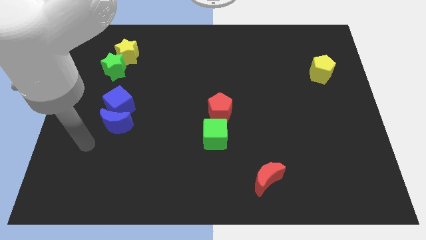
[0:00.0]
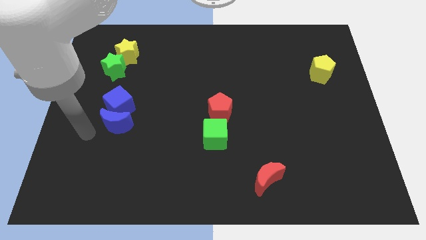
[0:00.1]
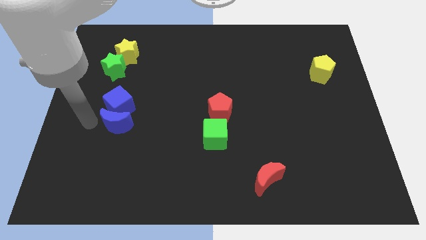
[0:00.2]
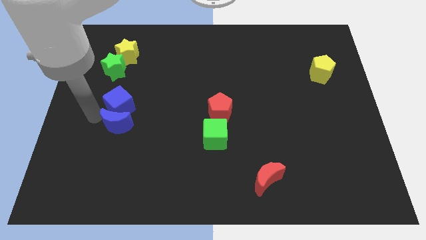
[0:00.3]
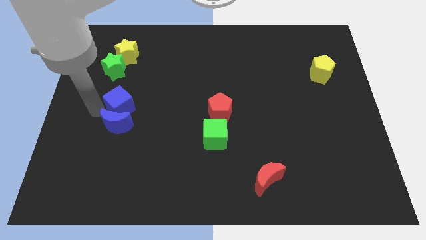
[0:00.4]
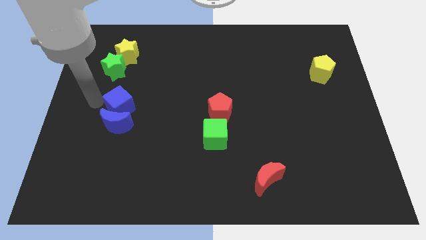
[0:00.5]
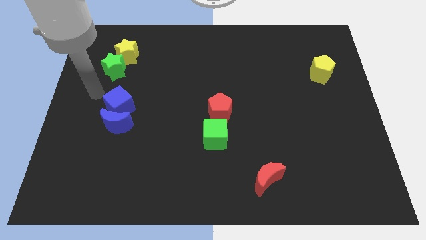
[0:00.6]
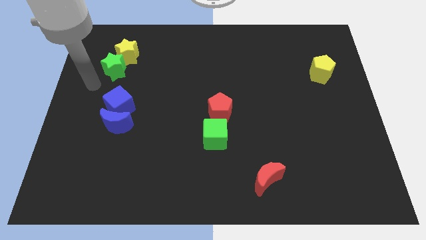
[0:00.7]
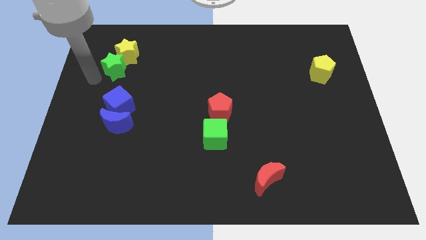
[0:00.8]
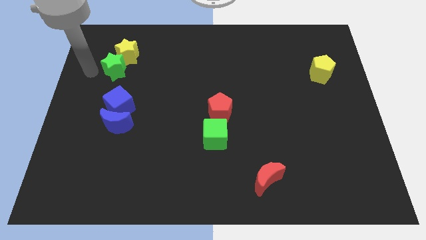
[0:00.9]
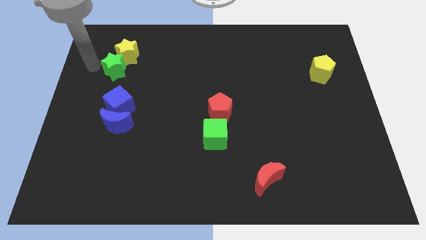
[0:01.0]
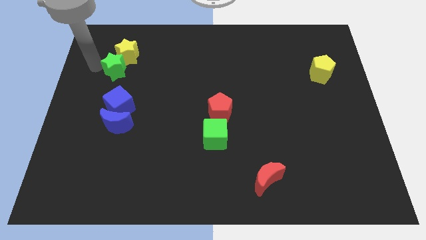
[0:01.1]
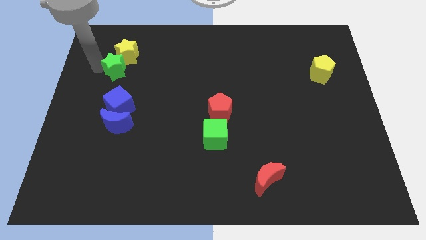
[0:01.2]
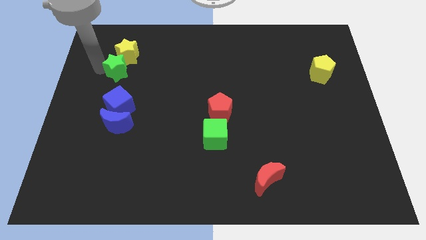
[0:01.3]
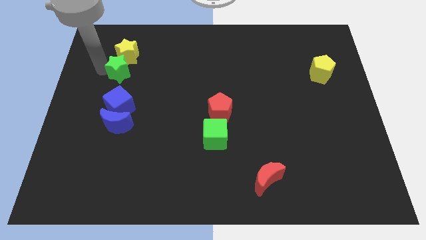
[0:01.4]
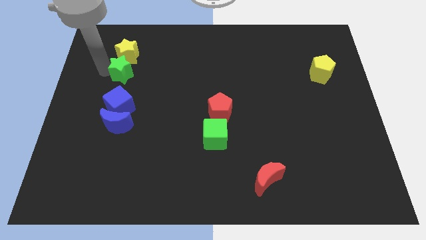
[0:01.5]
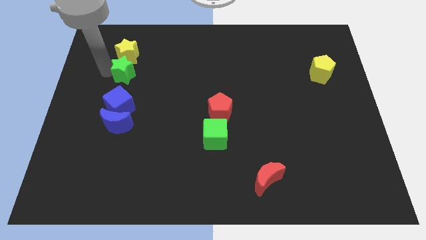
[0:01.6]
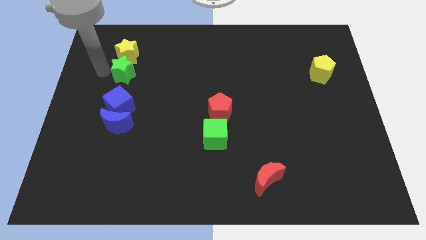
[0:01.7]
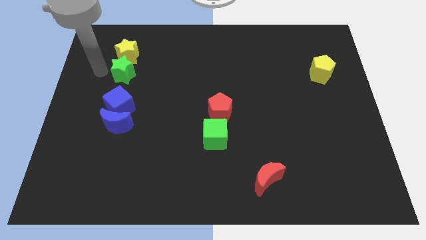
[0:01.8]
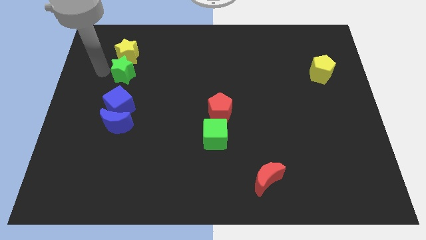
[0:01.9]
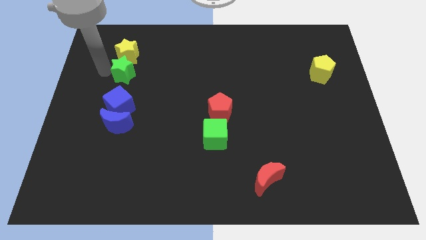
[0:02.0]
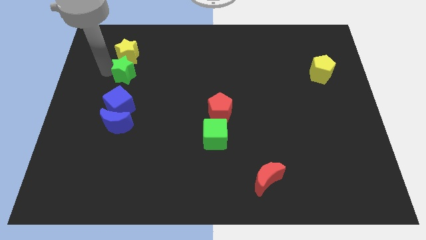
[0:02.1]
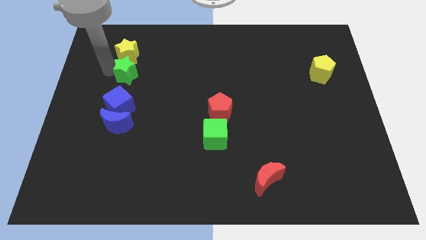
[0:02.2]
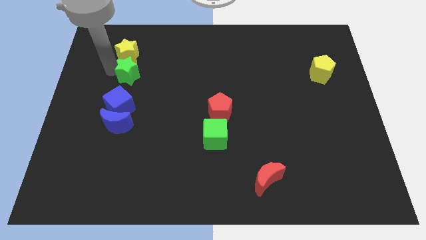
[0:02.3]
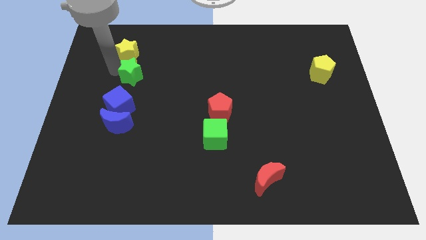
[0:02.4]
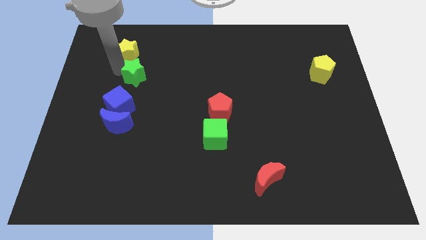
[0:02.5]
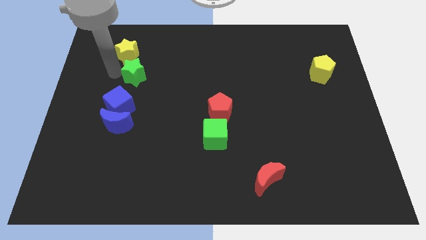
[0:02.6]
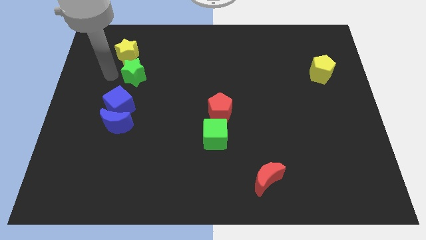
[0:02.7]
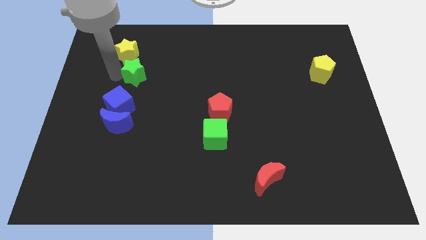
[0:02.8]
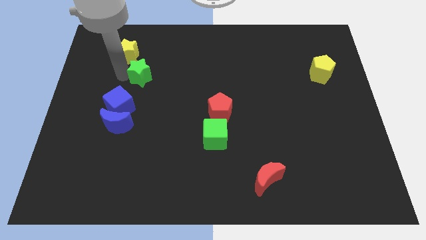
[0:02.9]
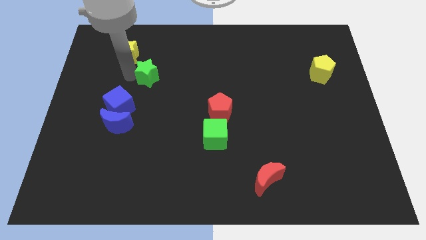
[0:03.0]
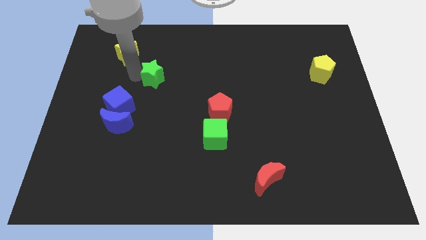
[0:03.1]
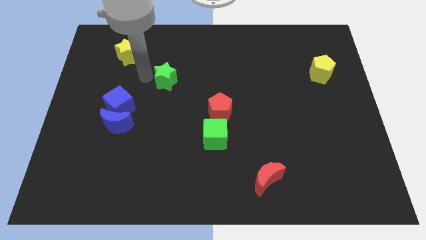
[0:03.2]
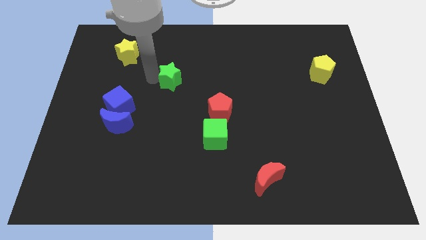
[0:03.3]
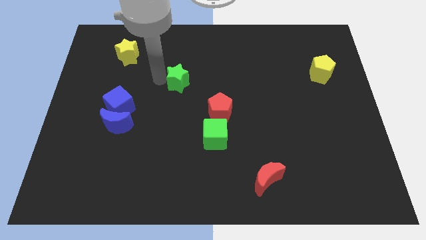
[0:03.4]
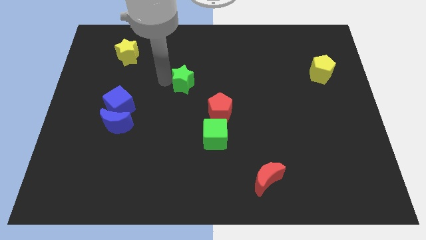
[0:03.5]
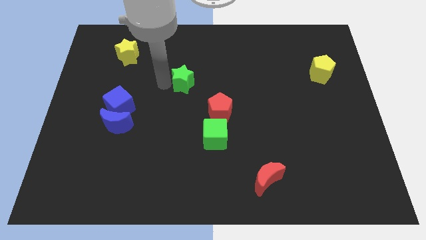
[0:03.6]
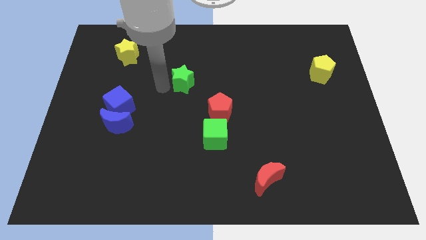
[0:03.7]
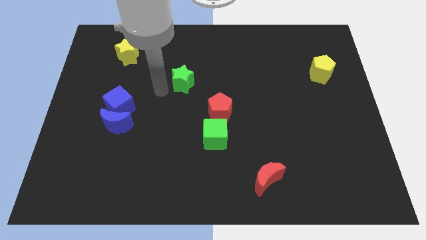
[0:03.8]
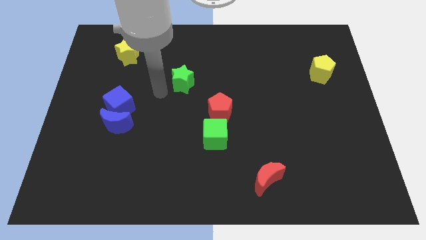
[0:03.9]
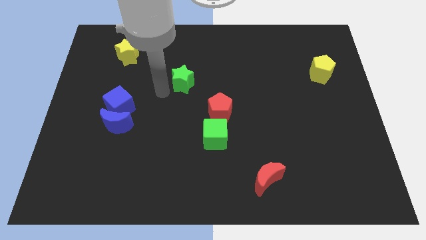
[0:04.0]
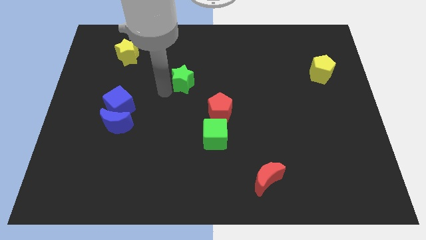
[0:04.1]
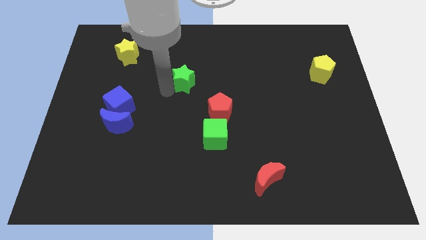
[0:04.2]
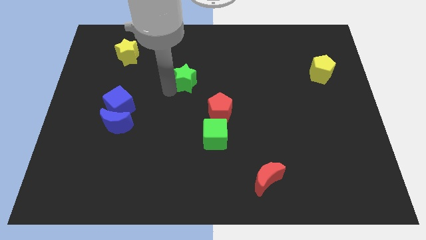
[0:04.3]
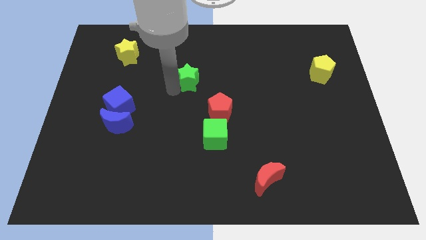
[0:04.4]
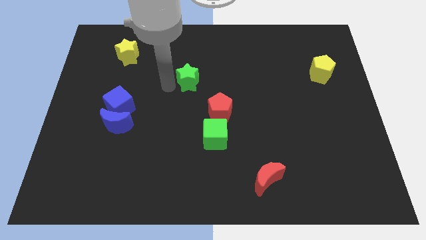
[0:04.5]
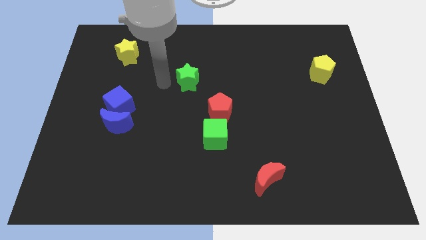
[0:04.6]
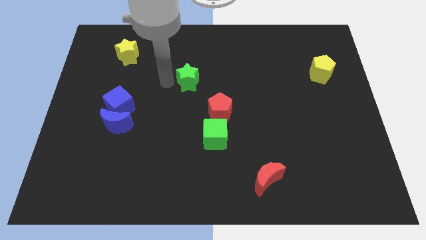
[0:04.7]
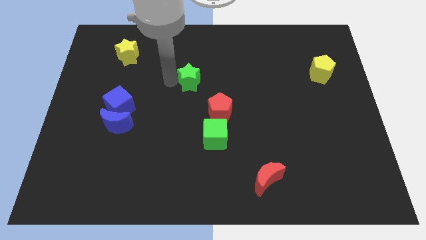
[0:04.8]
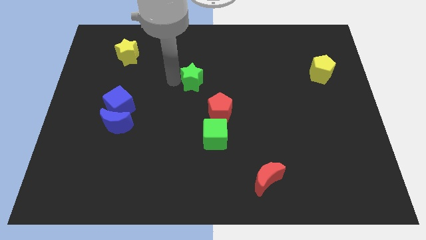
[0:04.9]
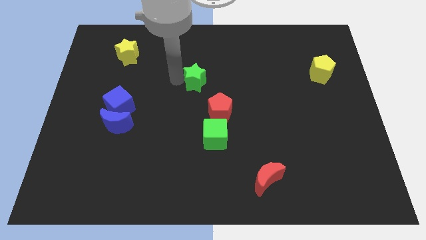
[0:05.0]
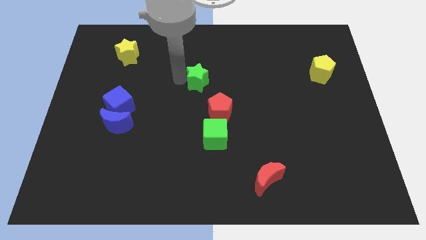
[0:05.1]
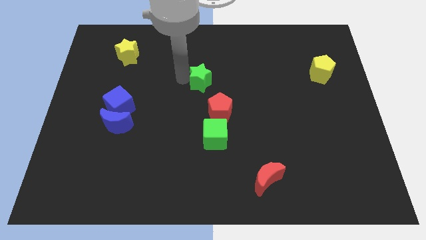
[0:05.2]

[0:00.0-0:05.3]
slide the green star to the top side of the red pentagon

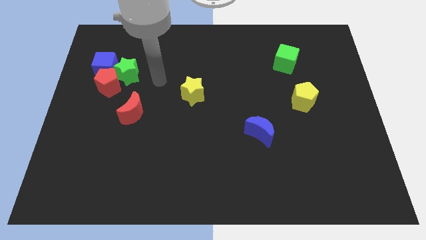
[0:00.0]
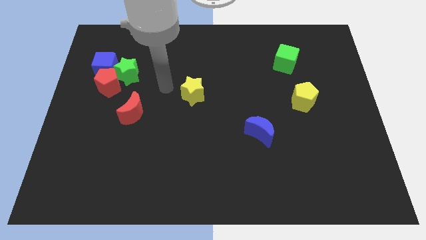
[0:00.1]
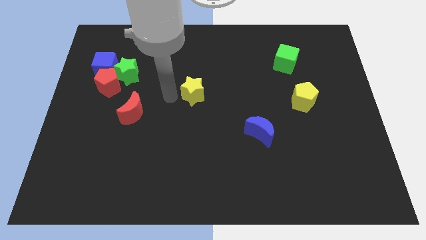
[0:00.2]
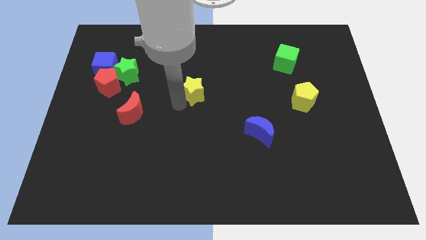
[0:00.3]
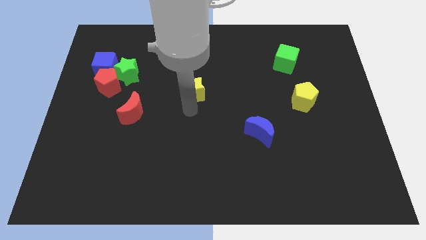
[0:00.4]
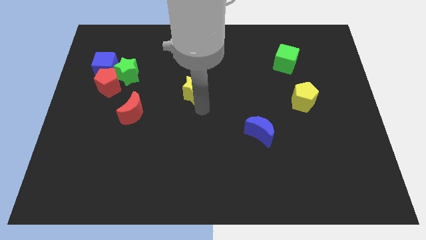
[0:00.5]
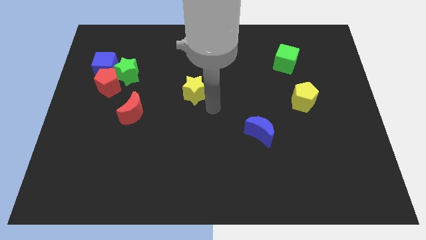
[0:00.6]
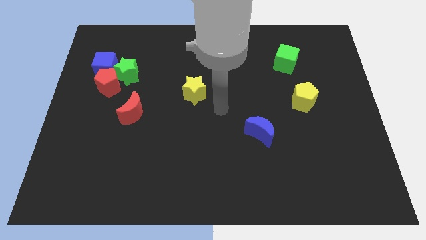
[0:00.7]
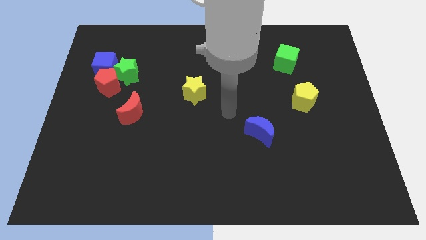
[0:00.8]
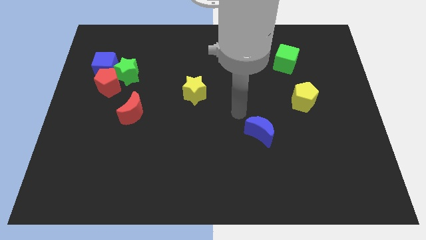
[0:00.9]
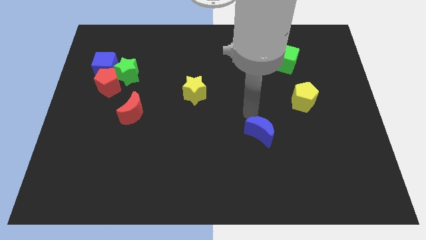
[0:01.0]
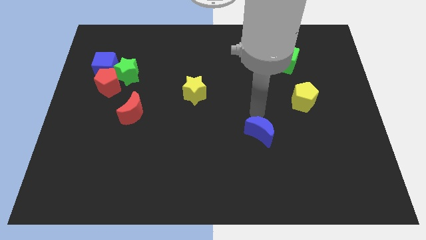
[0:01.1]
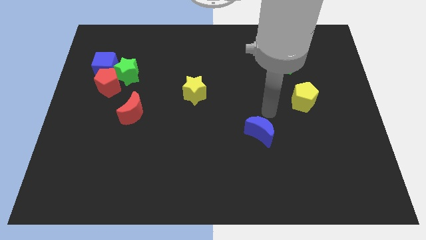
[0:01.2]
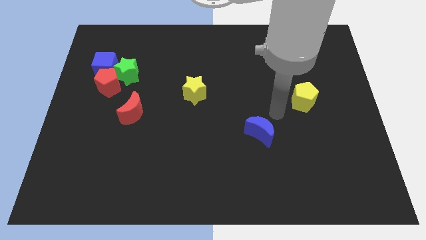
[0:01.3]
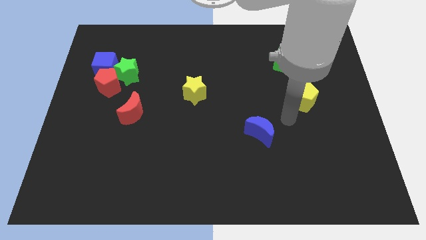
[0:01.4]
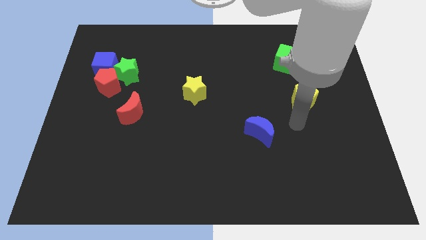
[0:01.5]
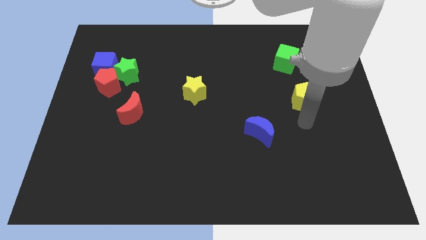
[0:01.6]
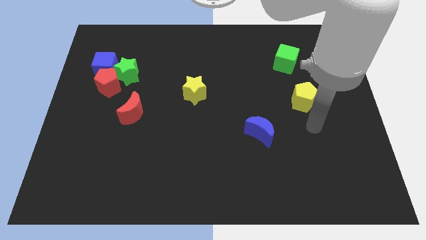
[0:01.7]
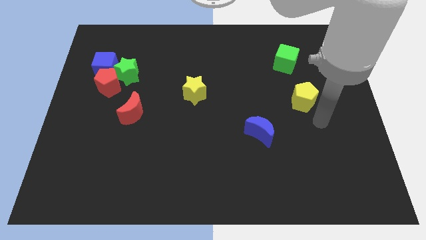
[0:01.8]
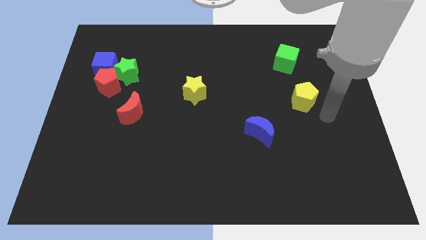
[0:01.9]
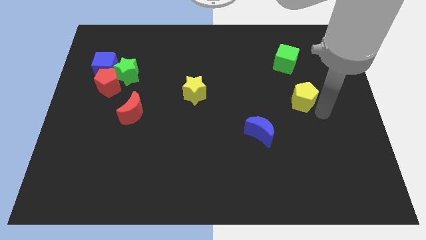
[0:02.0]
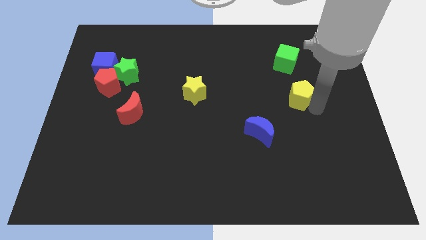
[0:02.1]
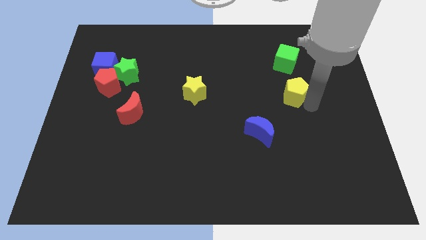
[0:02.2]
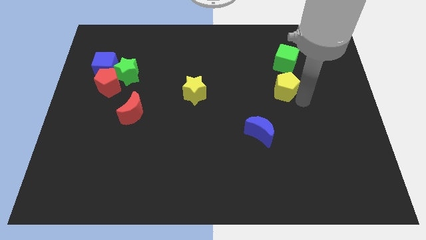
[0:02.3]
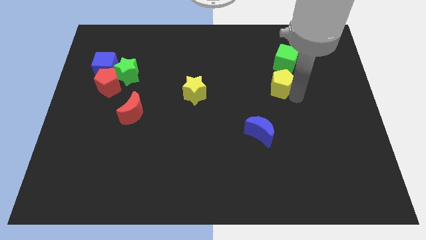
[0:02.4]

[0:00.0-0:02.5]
put the yellow pentagon to the bottom left of the green cube
